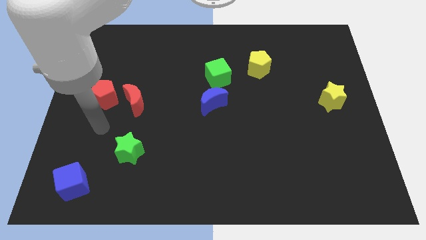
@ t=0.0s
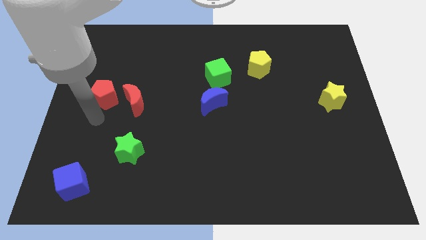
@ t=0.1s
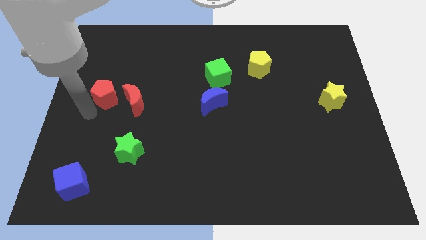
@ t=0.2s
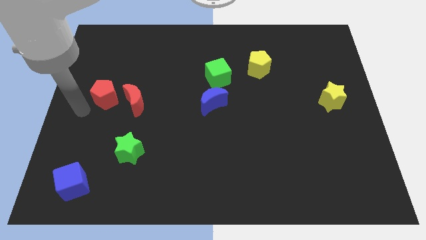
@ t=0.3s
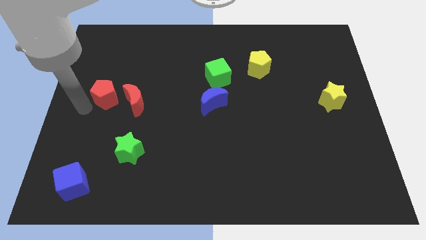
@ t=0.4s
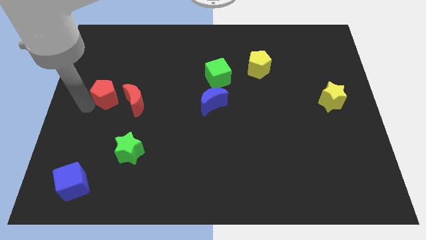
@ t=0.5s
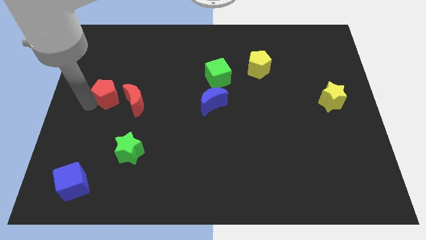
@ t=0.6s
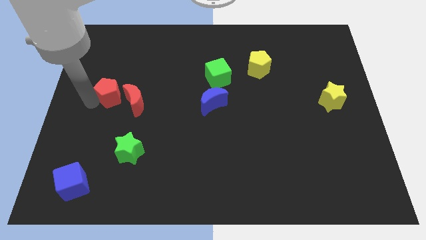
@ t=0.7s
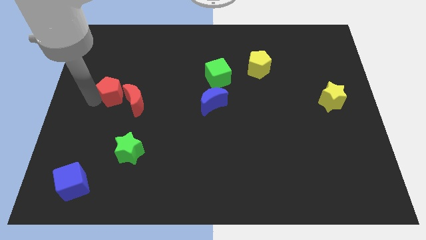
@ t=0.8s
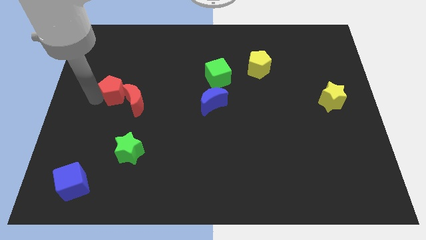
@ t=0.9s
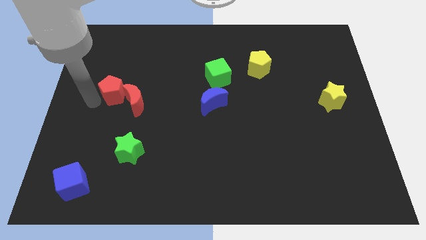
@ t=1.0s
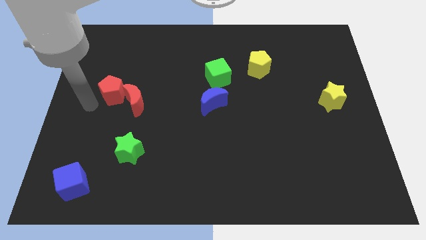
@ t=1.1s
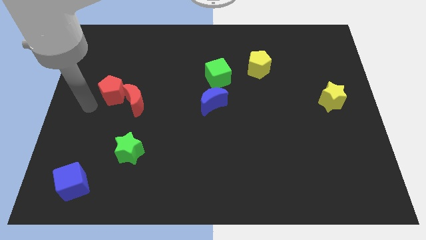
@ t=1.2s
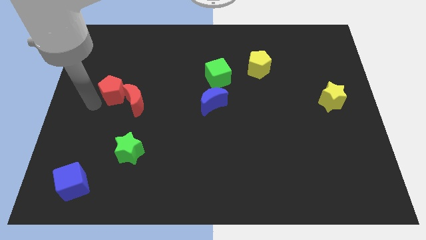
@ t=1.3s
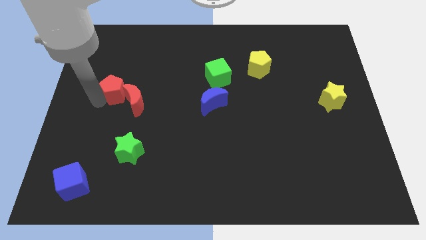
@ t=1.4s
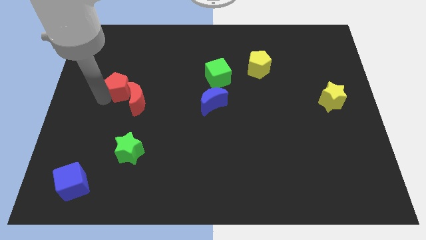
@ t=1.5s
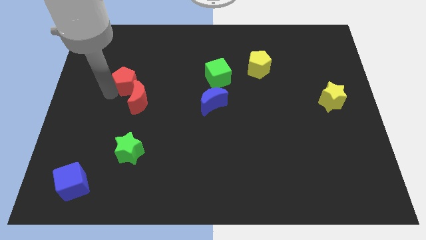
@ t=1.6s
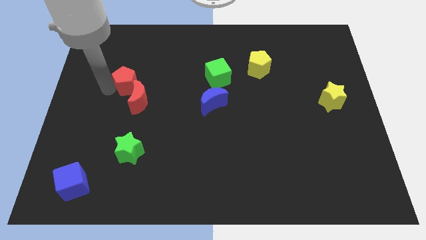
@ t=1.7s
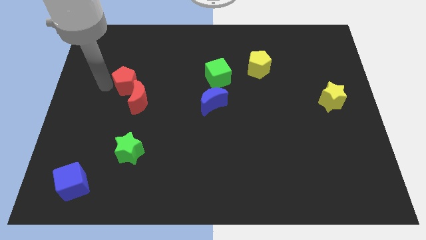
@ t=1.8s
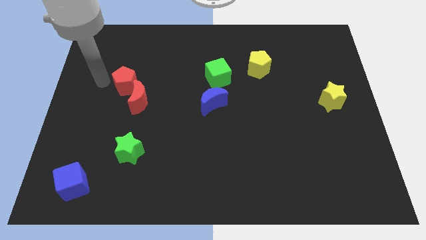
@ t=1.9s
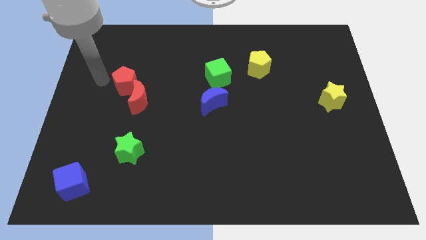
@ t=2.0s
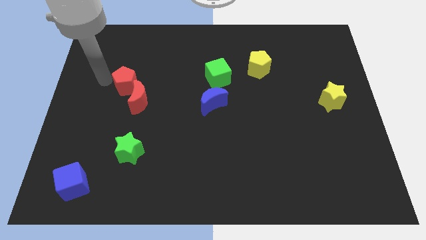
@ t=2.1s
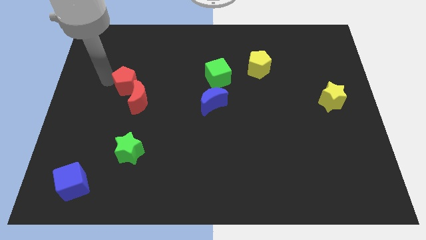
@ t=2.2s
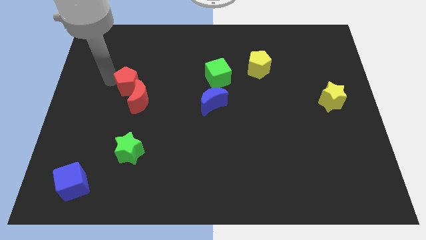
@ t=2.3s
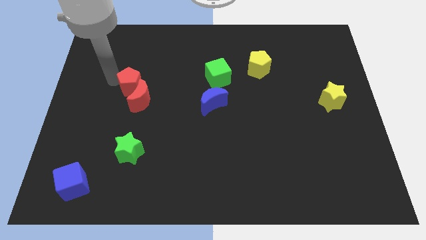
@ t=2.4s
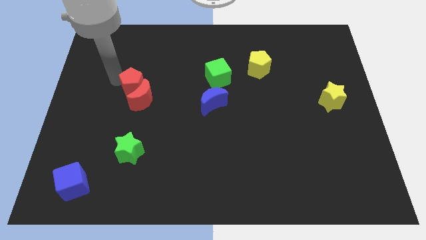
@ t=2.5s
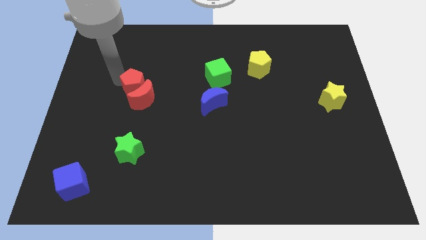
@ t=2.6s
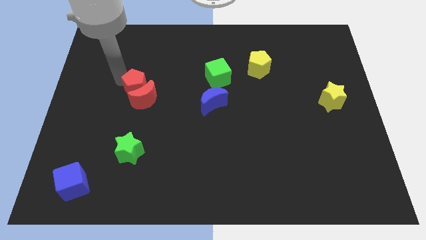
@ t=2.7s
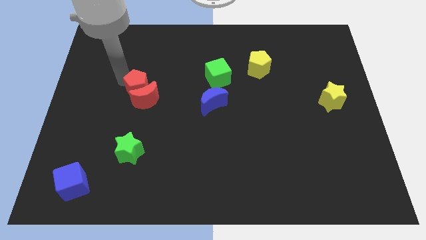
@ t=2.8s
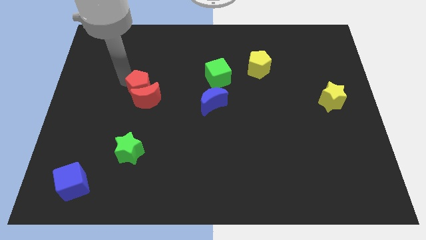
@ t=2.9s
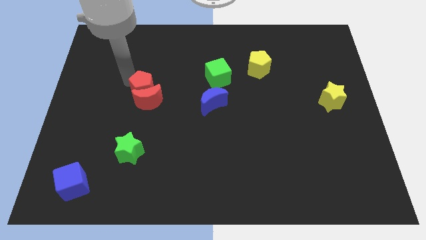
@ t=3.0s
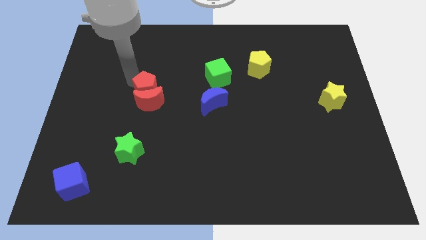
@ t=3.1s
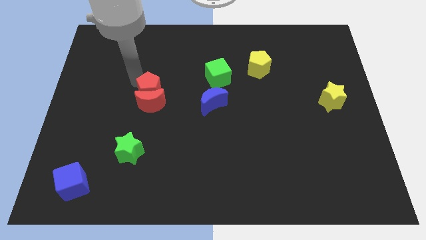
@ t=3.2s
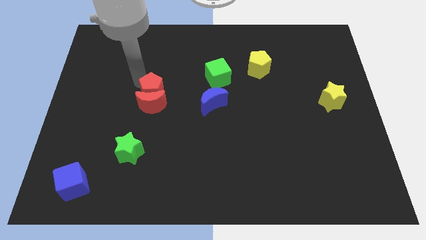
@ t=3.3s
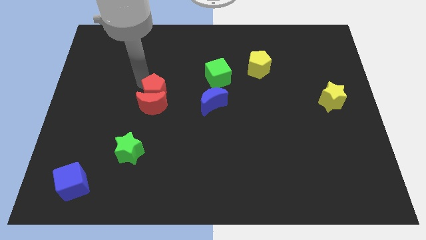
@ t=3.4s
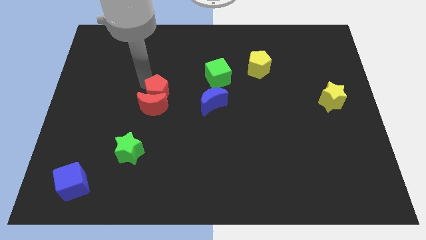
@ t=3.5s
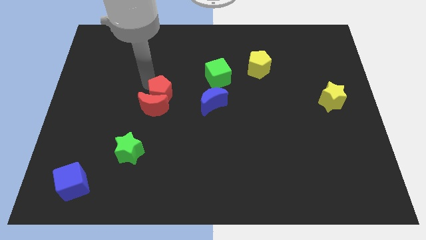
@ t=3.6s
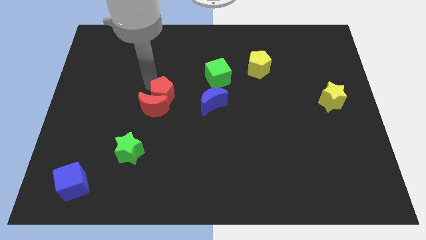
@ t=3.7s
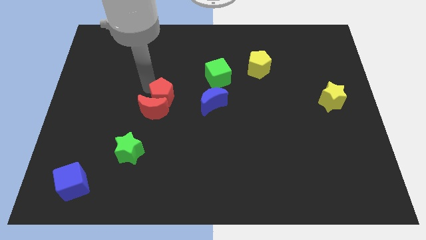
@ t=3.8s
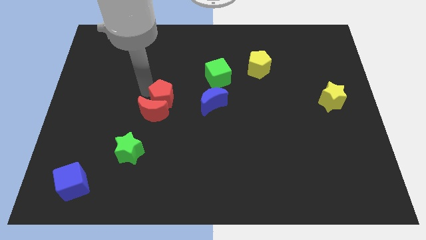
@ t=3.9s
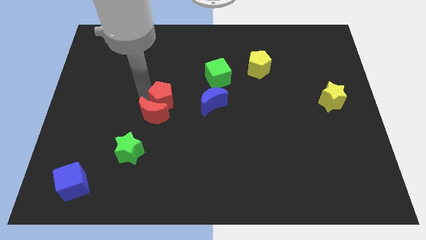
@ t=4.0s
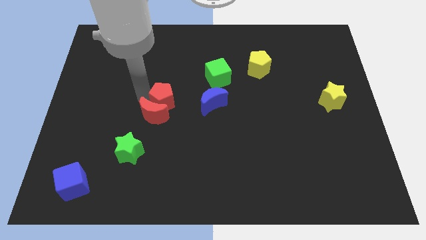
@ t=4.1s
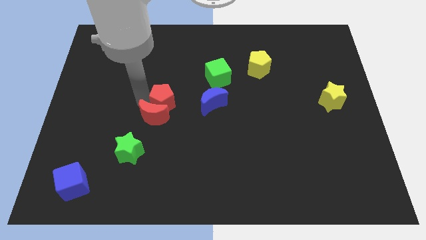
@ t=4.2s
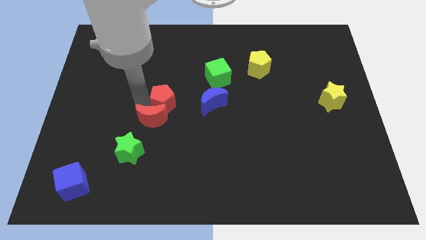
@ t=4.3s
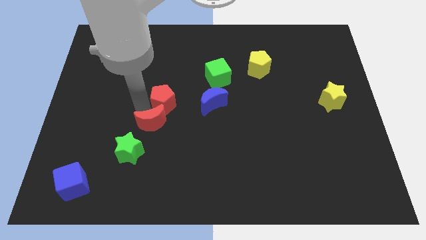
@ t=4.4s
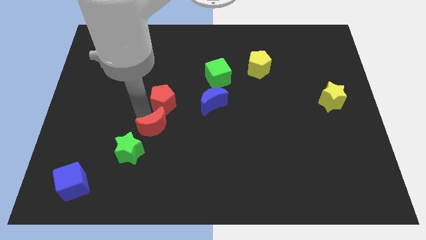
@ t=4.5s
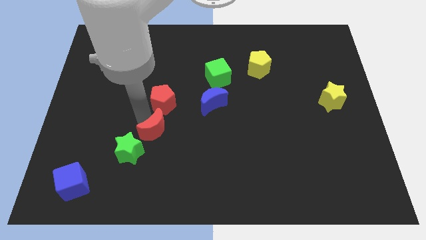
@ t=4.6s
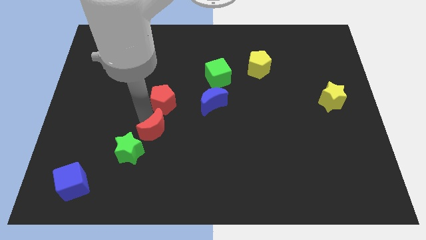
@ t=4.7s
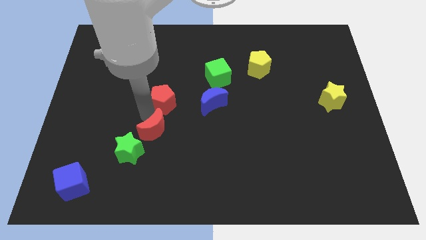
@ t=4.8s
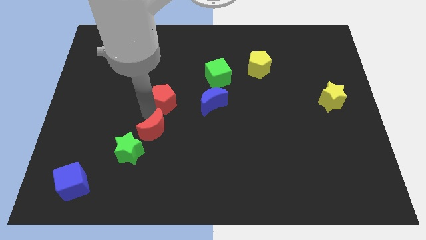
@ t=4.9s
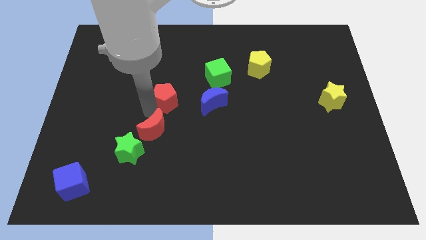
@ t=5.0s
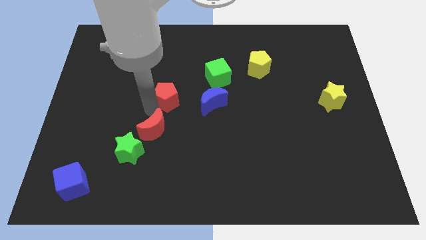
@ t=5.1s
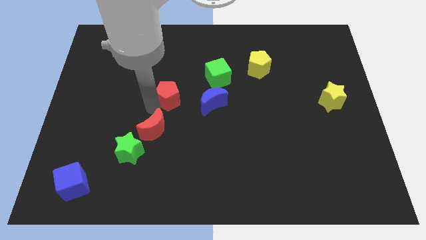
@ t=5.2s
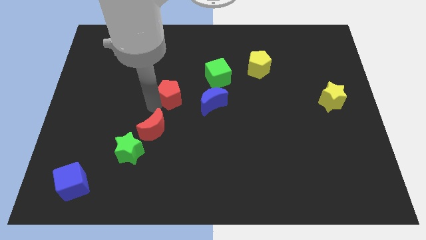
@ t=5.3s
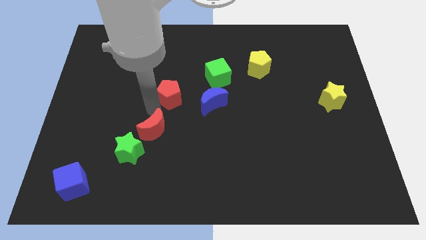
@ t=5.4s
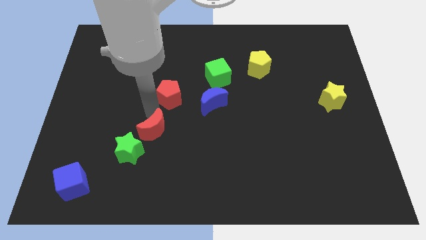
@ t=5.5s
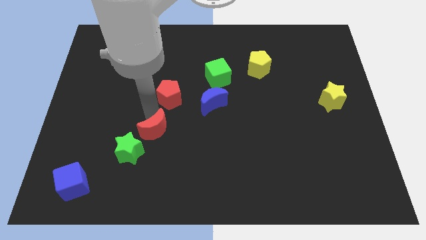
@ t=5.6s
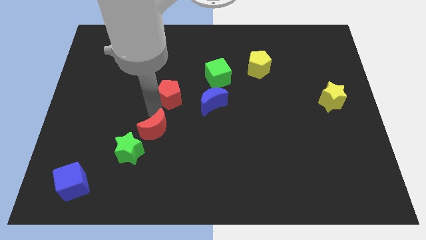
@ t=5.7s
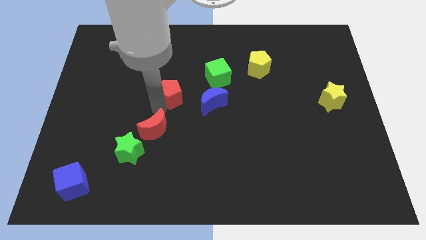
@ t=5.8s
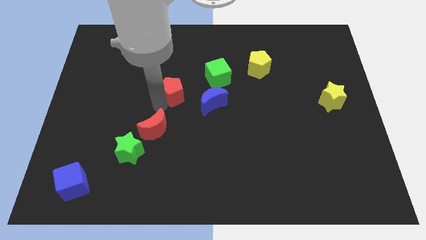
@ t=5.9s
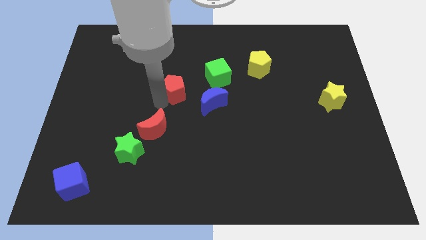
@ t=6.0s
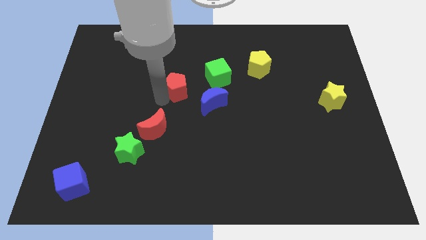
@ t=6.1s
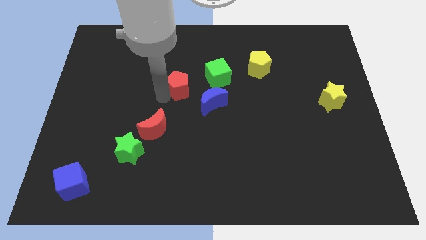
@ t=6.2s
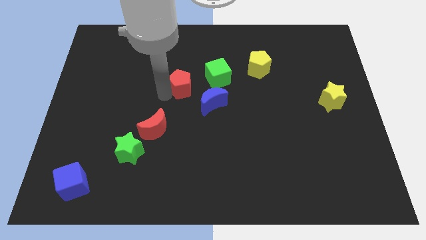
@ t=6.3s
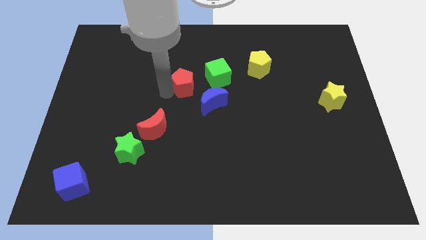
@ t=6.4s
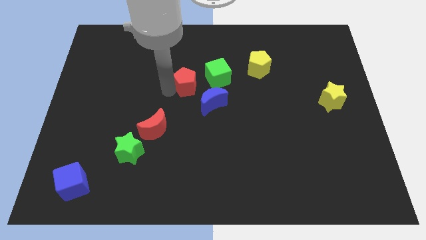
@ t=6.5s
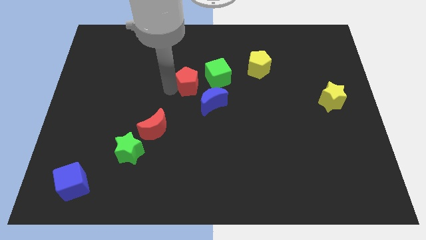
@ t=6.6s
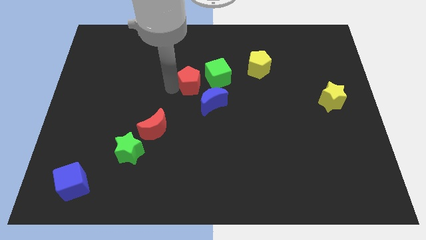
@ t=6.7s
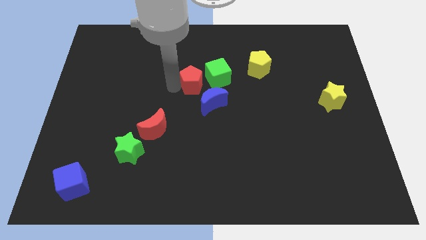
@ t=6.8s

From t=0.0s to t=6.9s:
move the red pentagon to the right

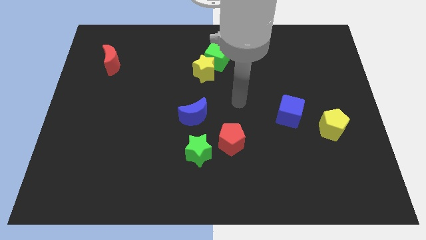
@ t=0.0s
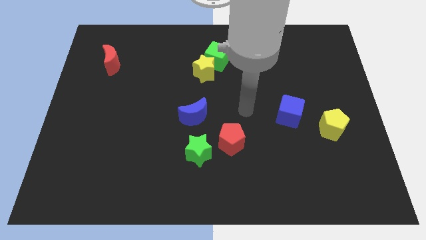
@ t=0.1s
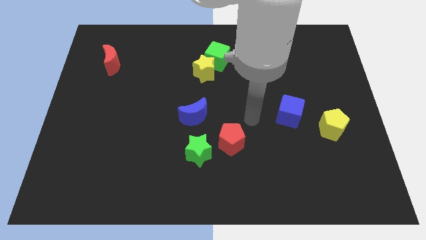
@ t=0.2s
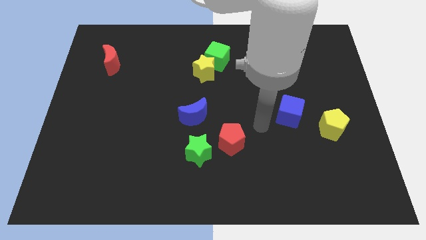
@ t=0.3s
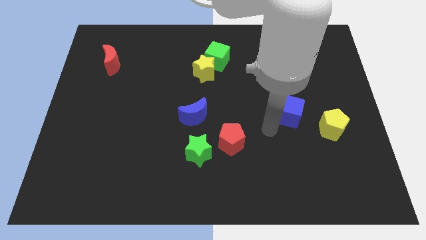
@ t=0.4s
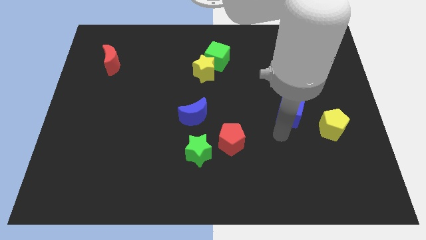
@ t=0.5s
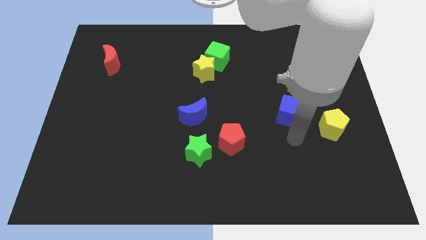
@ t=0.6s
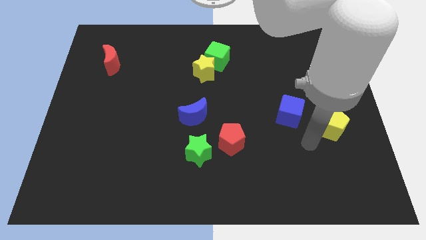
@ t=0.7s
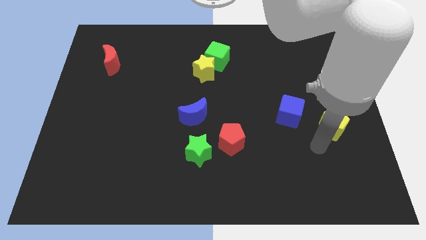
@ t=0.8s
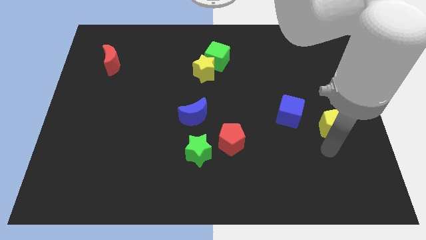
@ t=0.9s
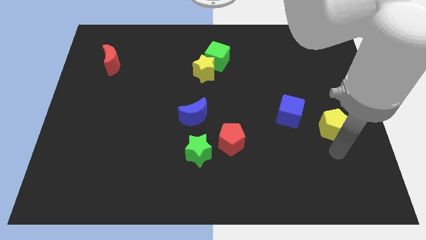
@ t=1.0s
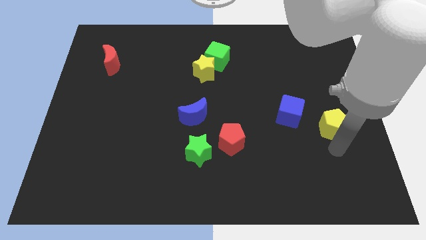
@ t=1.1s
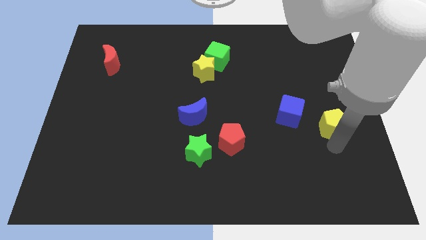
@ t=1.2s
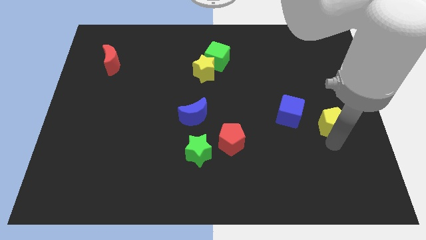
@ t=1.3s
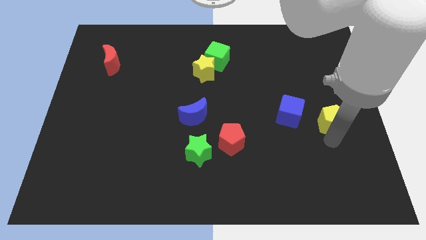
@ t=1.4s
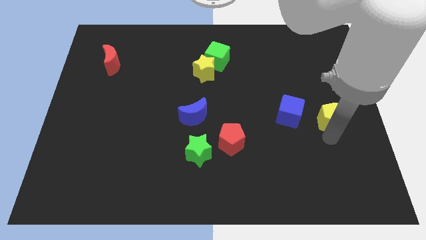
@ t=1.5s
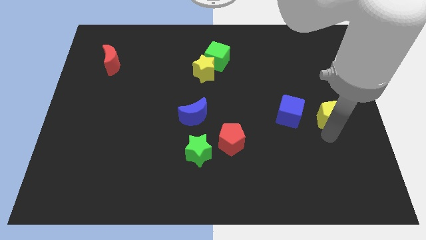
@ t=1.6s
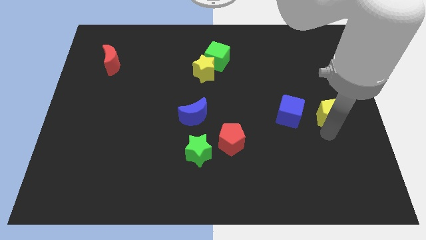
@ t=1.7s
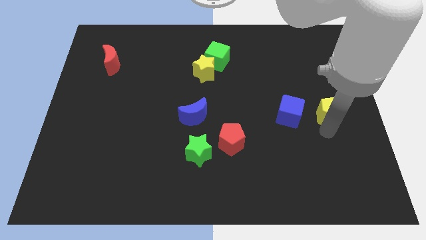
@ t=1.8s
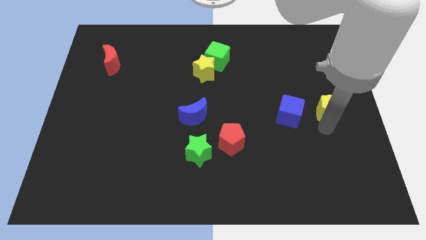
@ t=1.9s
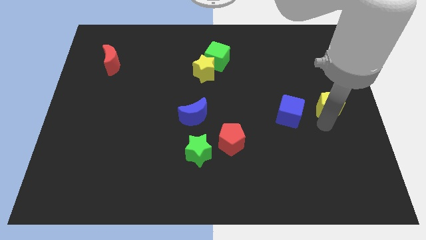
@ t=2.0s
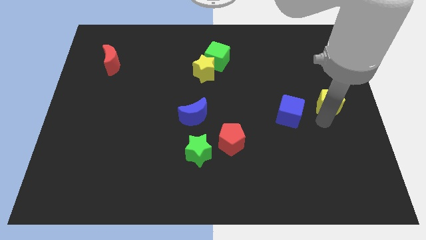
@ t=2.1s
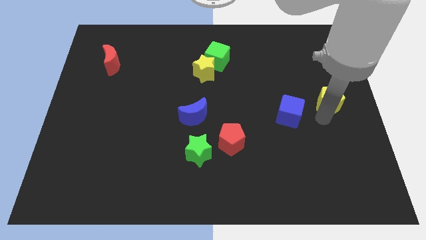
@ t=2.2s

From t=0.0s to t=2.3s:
push the yellow pentagon somewhat up
